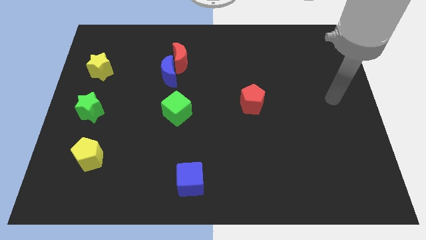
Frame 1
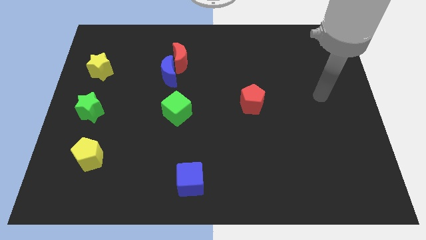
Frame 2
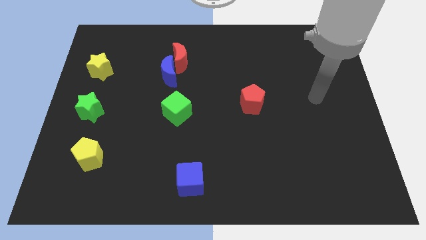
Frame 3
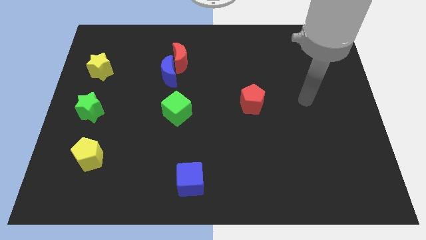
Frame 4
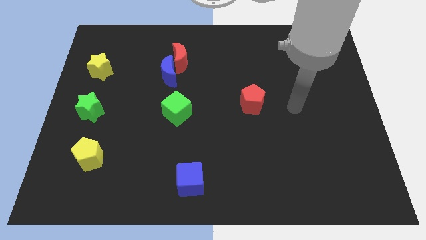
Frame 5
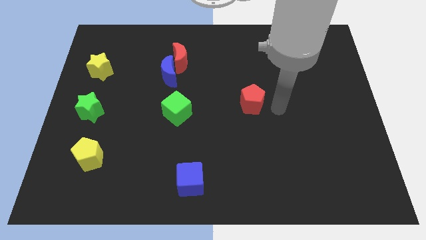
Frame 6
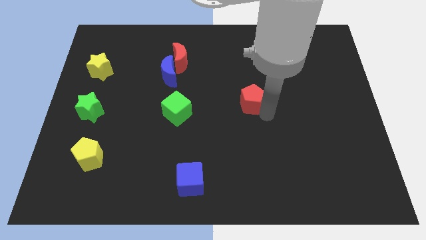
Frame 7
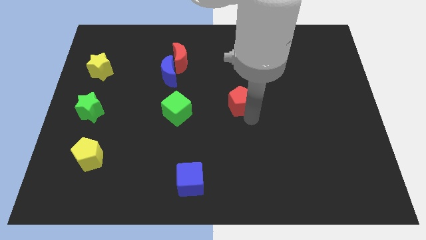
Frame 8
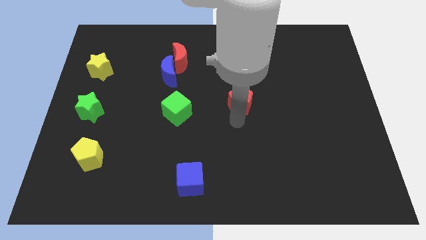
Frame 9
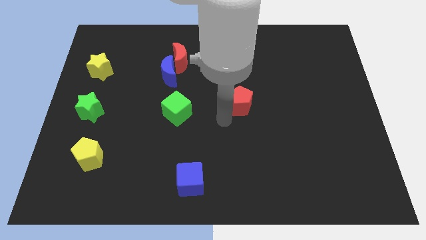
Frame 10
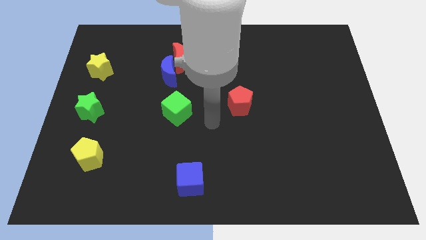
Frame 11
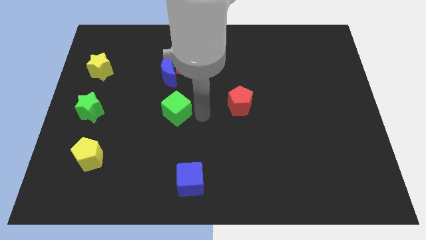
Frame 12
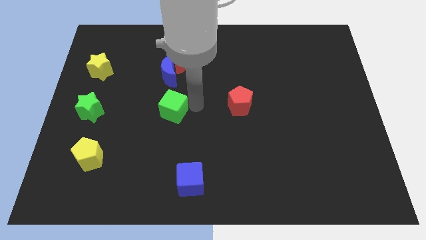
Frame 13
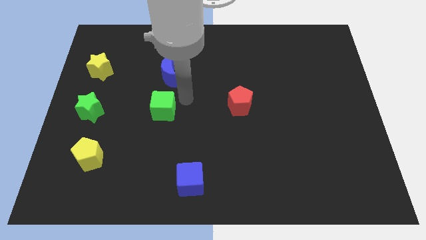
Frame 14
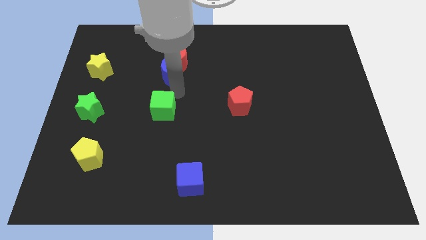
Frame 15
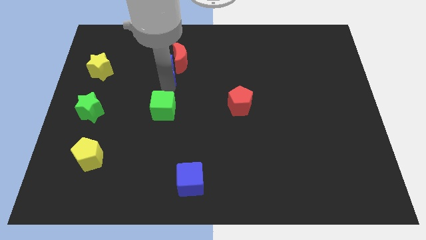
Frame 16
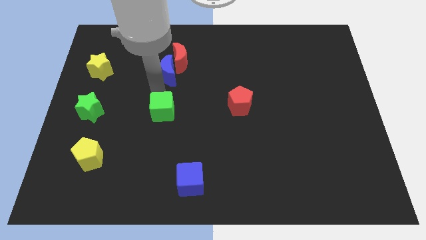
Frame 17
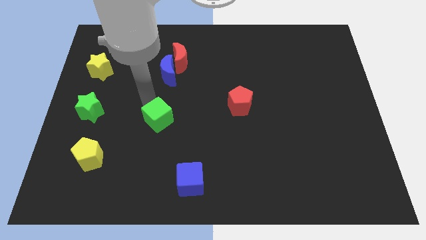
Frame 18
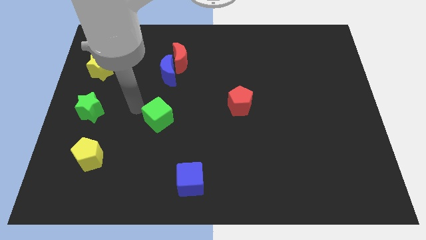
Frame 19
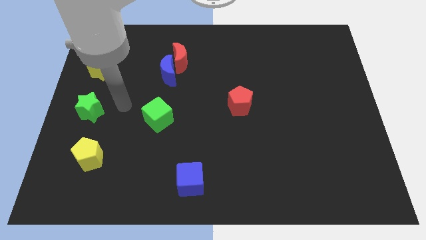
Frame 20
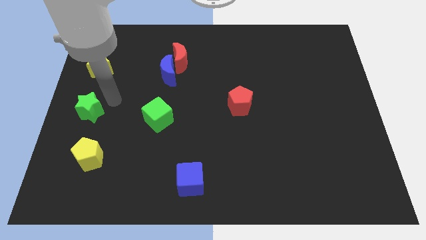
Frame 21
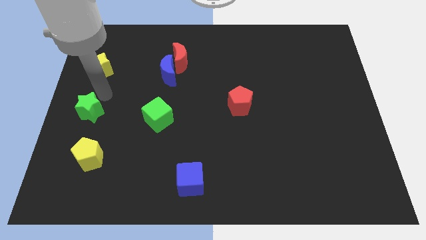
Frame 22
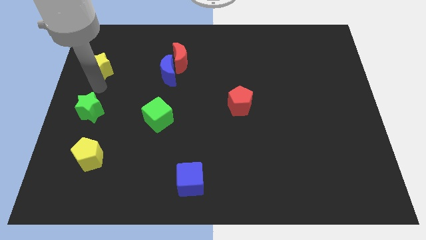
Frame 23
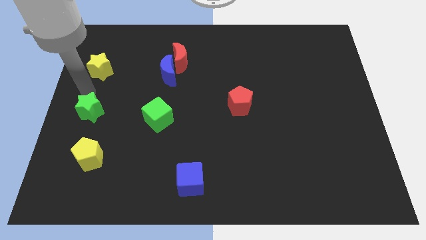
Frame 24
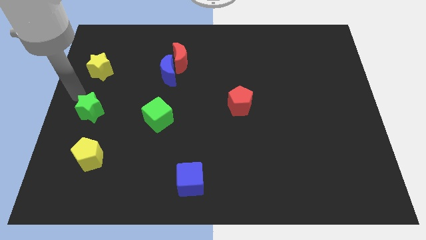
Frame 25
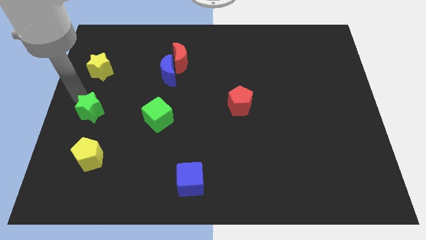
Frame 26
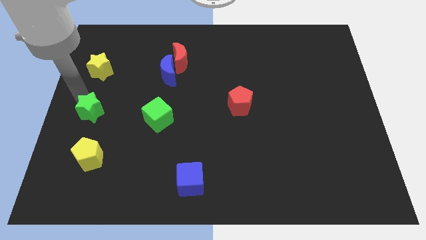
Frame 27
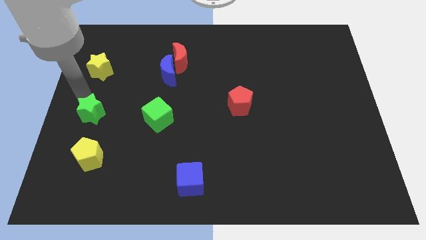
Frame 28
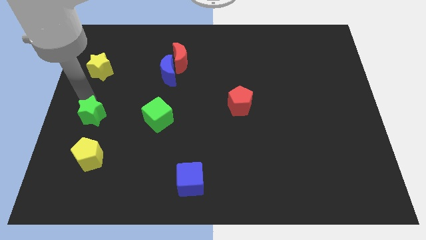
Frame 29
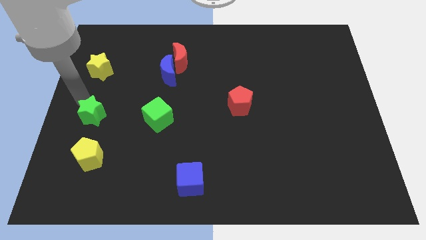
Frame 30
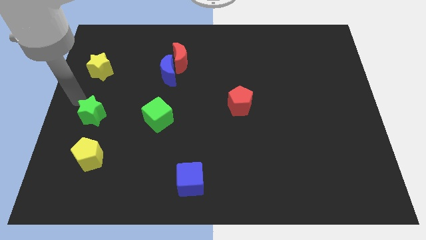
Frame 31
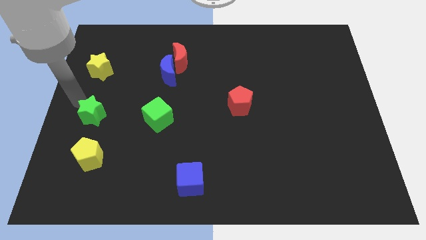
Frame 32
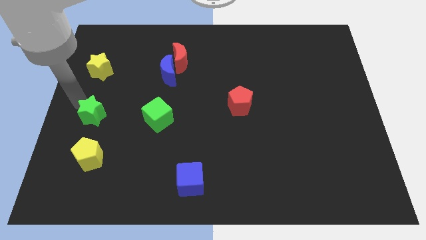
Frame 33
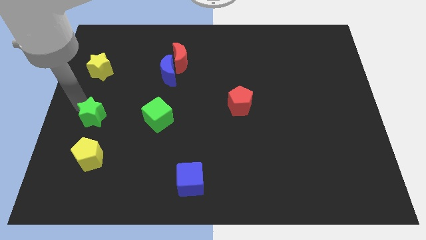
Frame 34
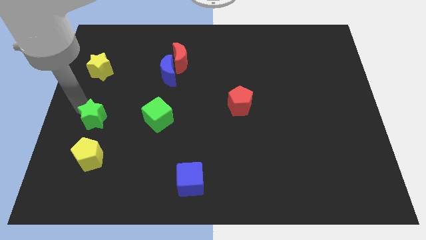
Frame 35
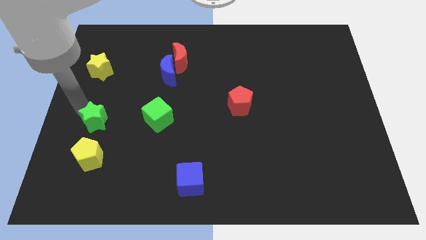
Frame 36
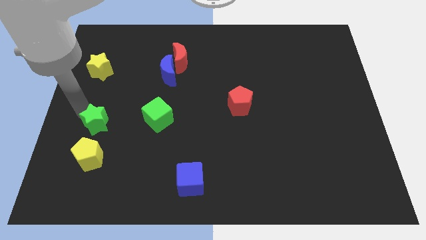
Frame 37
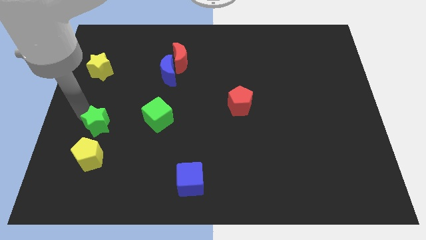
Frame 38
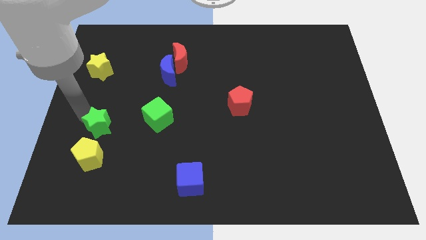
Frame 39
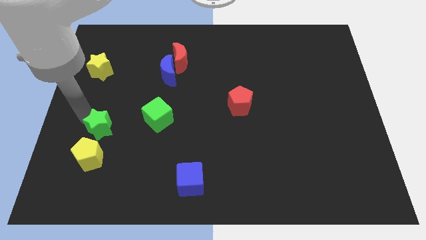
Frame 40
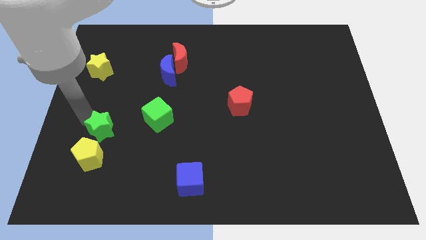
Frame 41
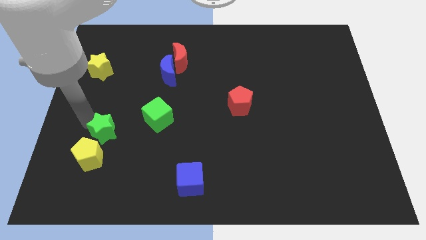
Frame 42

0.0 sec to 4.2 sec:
slide the green star diagonally down and right slightly

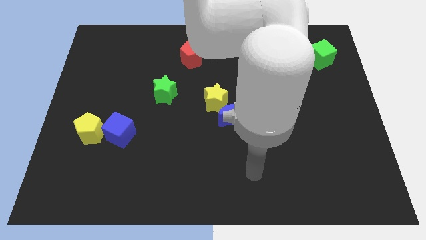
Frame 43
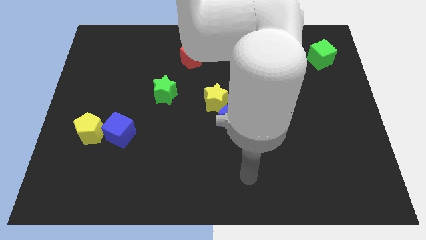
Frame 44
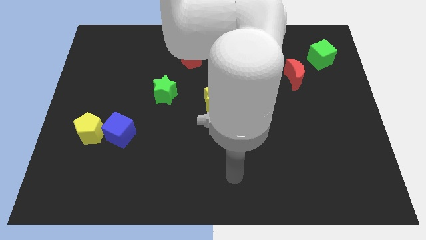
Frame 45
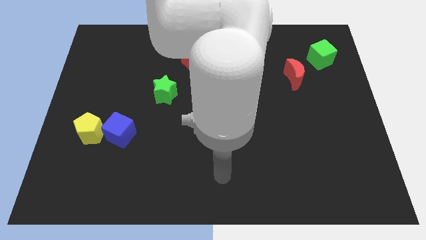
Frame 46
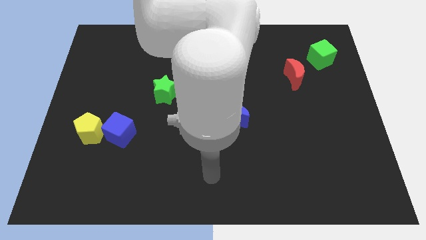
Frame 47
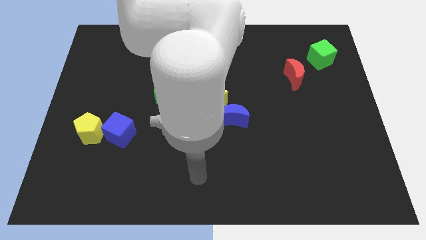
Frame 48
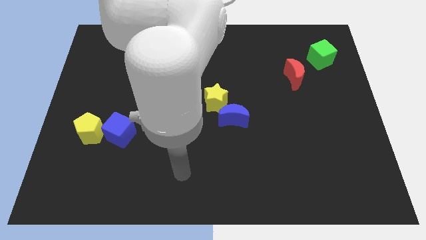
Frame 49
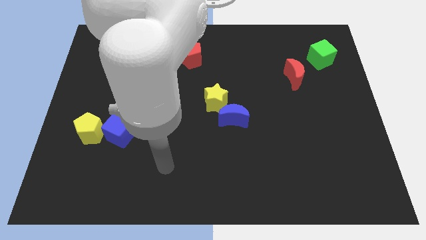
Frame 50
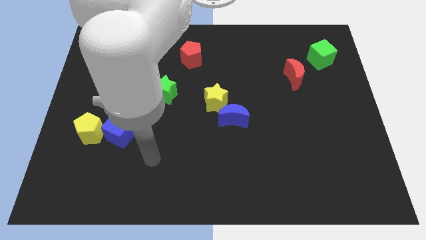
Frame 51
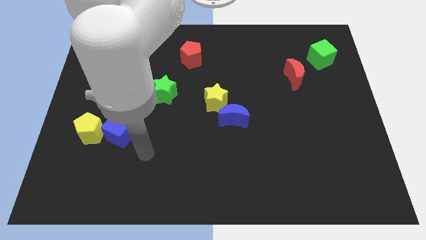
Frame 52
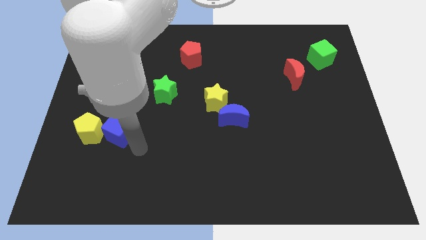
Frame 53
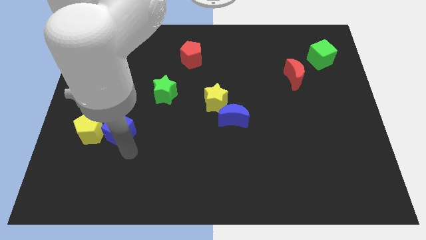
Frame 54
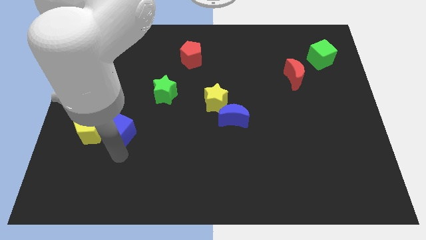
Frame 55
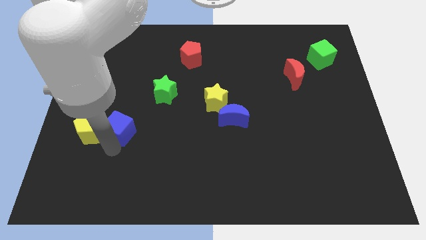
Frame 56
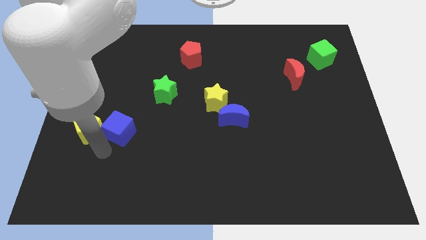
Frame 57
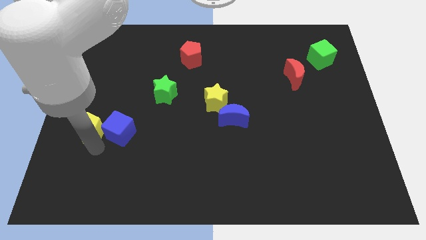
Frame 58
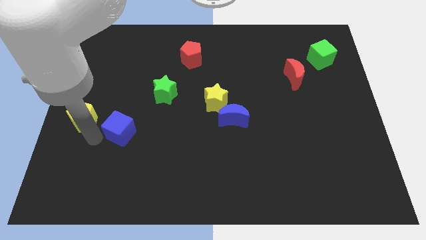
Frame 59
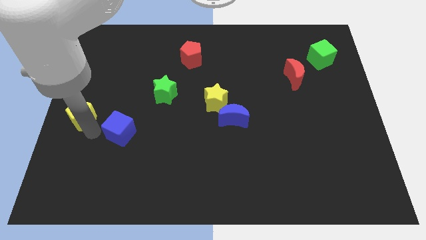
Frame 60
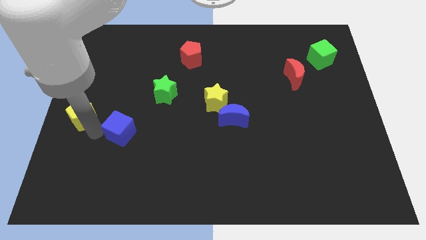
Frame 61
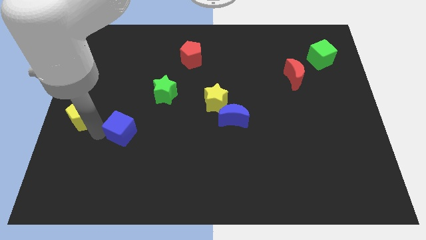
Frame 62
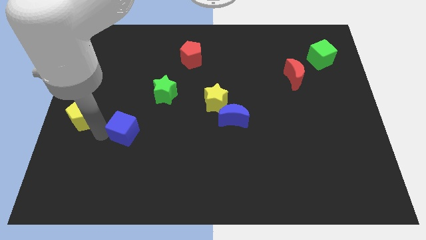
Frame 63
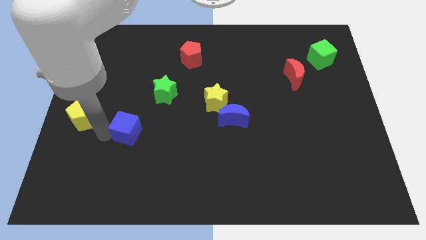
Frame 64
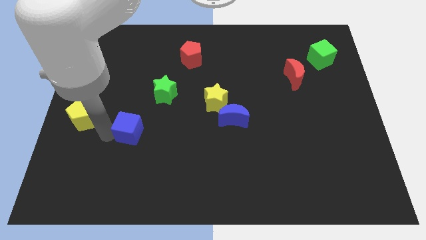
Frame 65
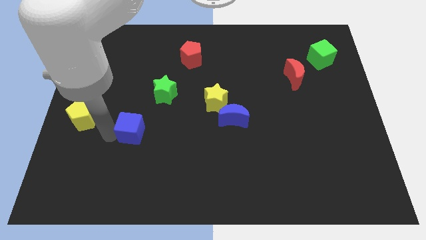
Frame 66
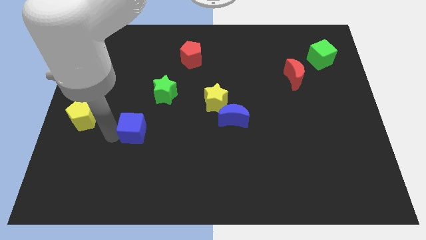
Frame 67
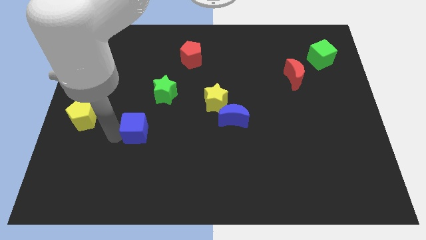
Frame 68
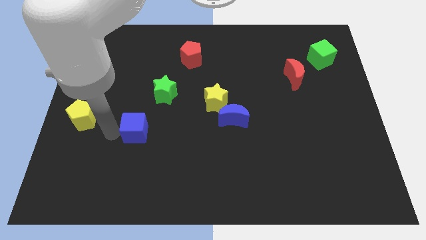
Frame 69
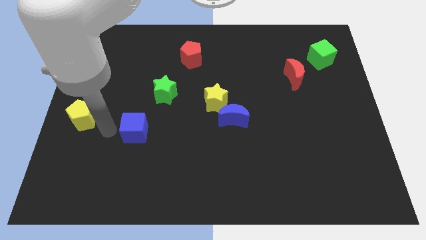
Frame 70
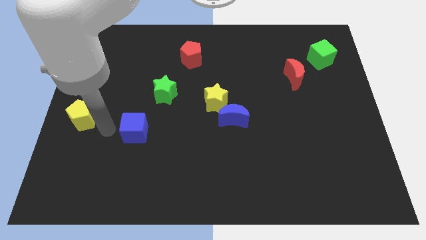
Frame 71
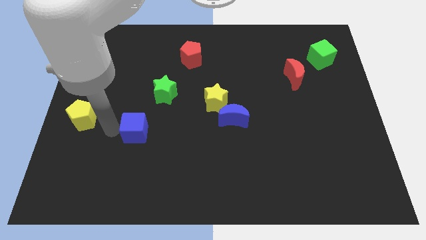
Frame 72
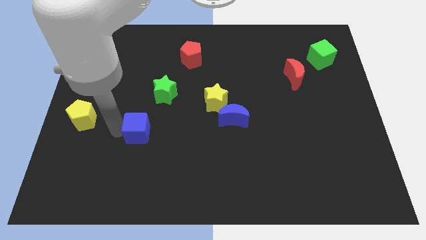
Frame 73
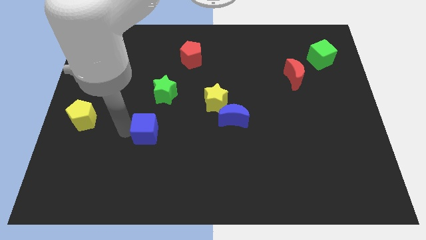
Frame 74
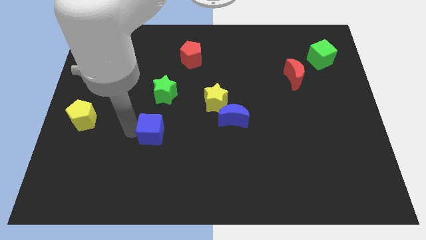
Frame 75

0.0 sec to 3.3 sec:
slightly slide the blue cube right

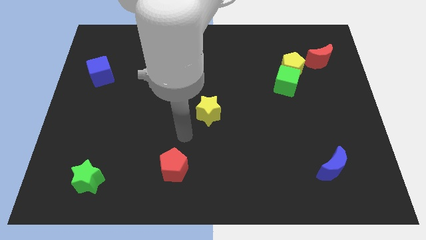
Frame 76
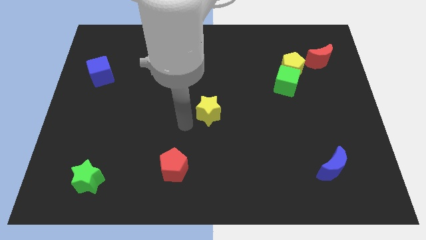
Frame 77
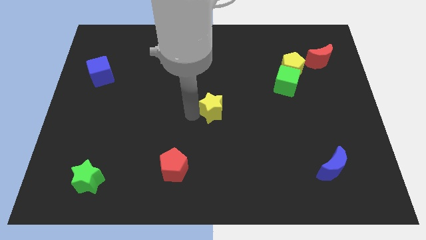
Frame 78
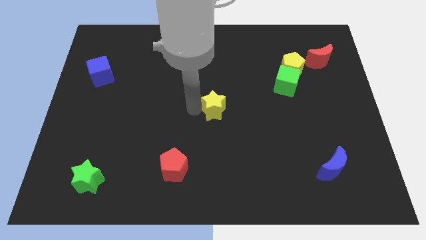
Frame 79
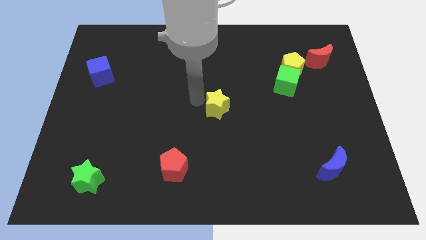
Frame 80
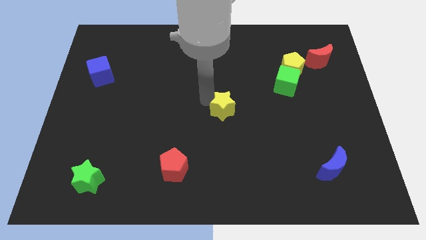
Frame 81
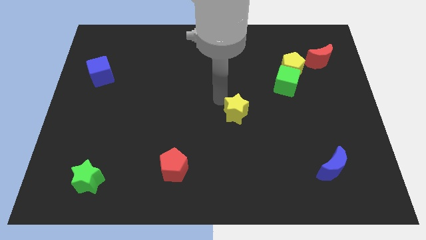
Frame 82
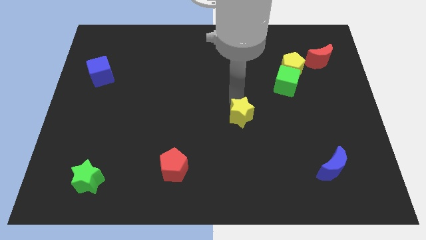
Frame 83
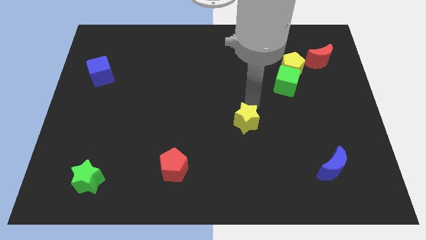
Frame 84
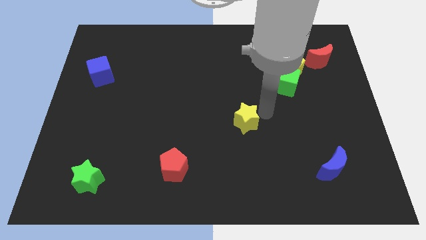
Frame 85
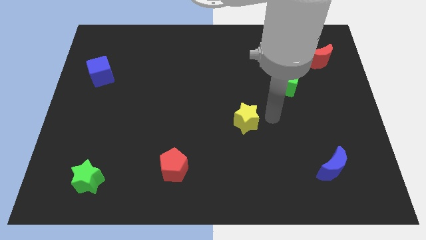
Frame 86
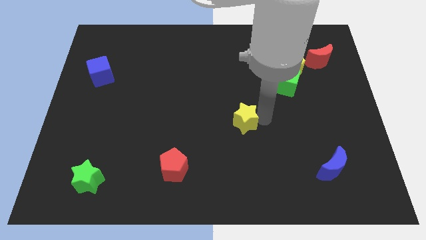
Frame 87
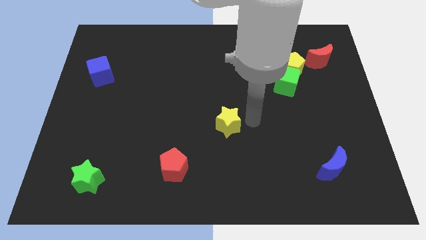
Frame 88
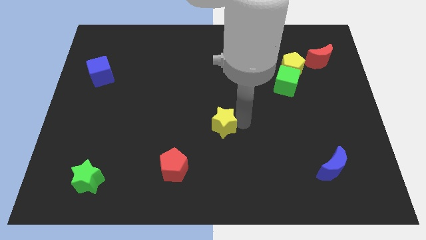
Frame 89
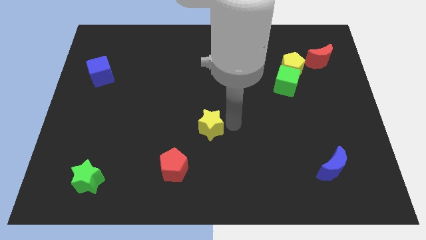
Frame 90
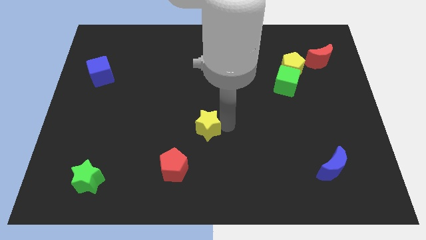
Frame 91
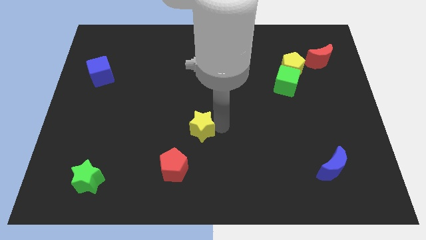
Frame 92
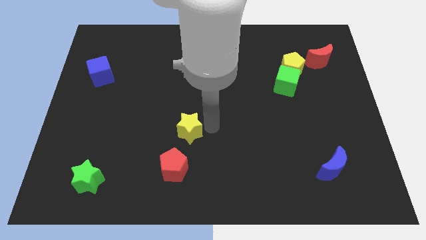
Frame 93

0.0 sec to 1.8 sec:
slightly push the yellow star downwards and left diagonally
